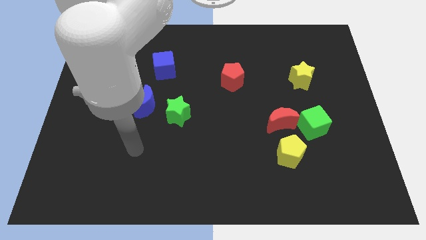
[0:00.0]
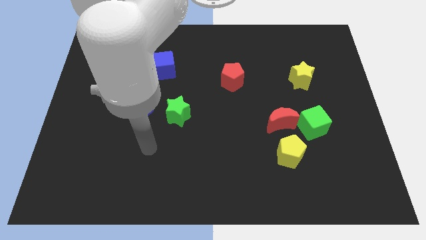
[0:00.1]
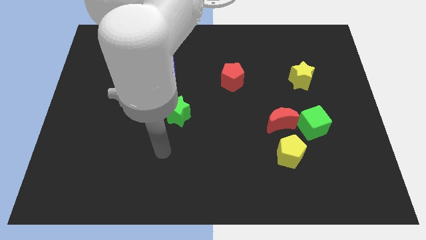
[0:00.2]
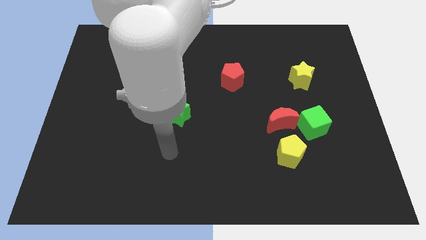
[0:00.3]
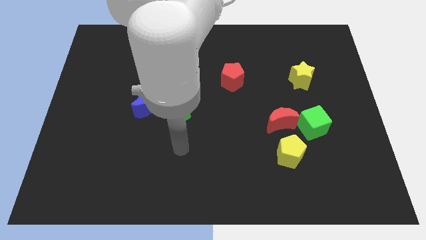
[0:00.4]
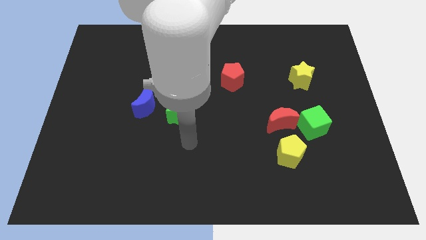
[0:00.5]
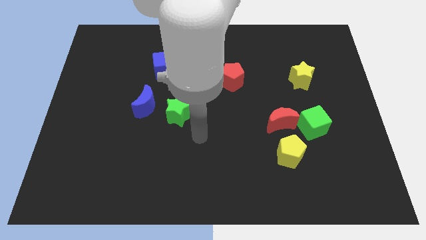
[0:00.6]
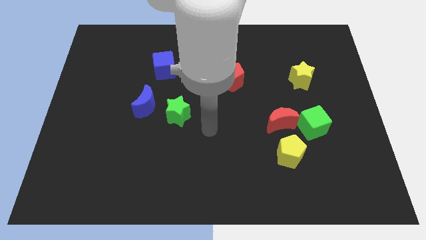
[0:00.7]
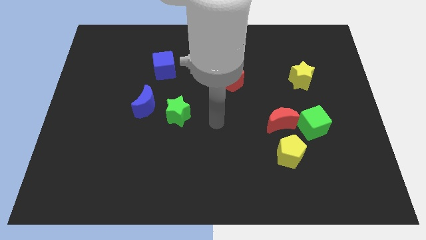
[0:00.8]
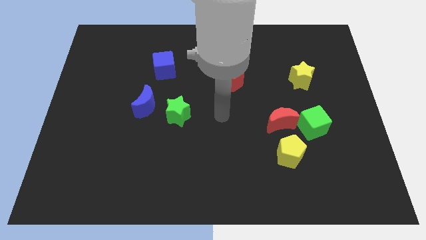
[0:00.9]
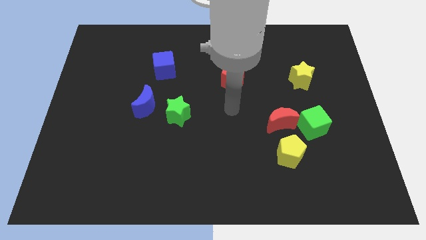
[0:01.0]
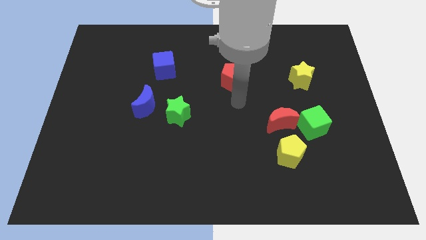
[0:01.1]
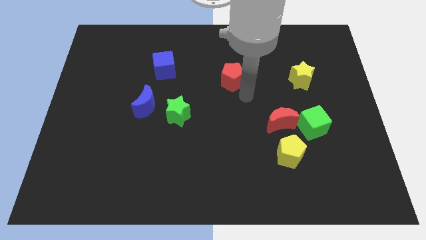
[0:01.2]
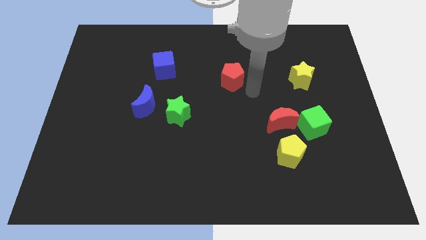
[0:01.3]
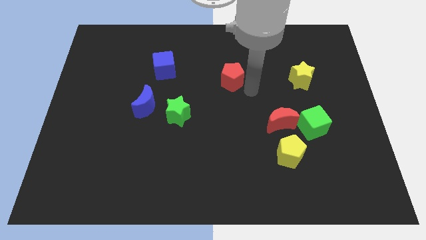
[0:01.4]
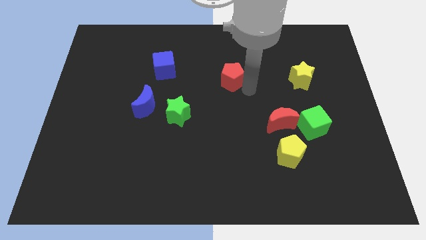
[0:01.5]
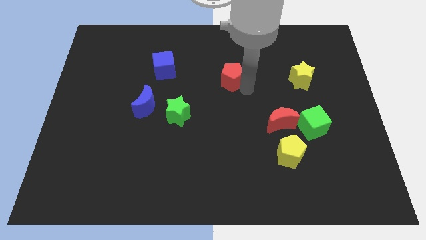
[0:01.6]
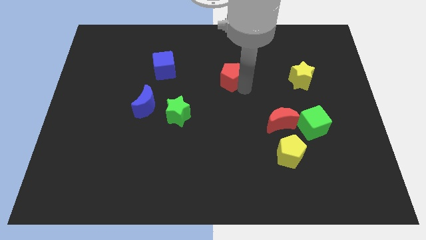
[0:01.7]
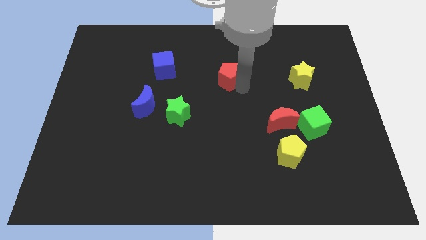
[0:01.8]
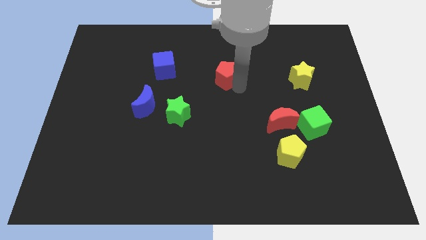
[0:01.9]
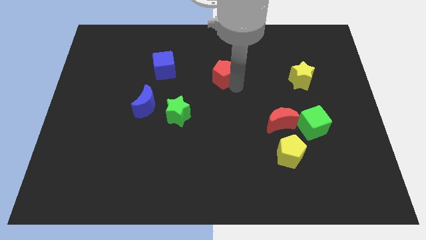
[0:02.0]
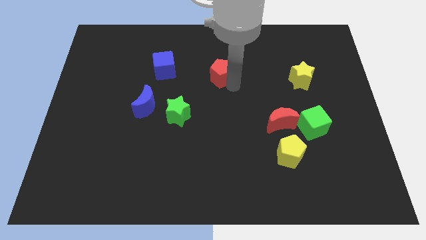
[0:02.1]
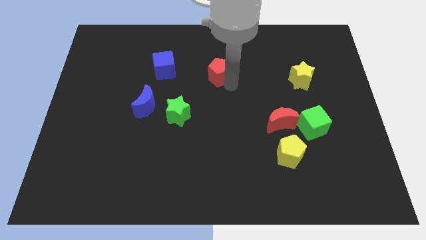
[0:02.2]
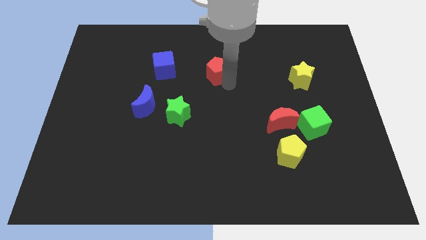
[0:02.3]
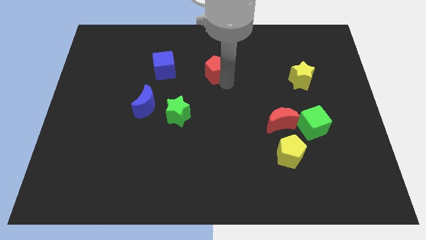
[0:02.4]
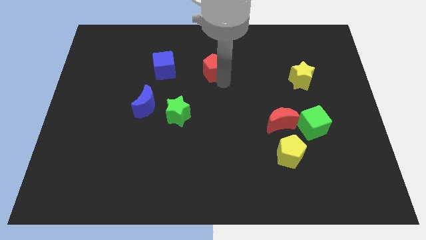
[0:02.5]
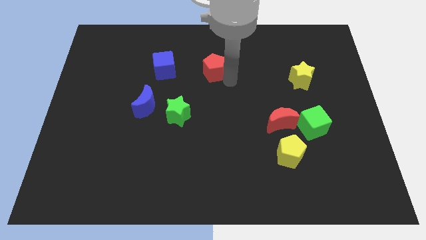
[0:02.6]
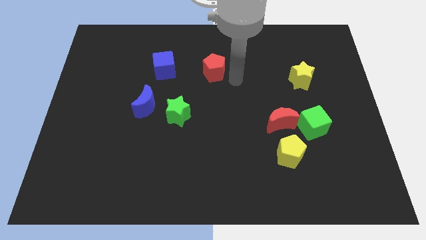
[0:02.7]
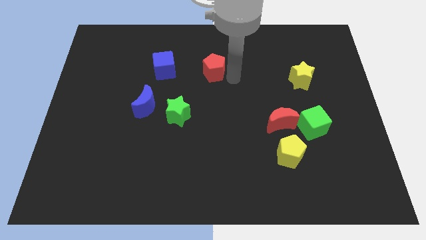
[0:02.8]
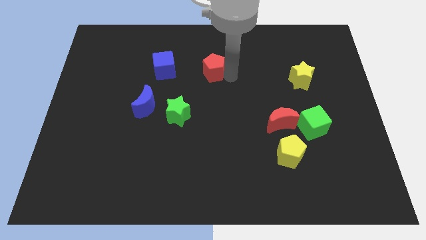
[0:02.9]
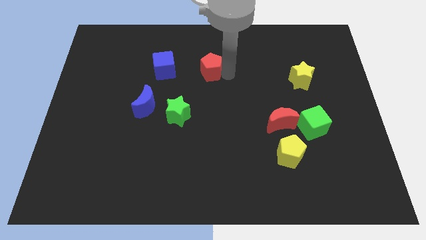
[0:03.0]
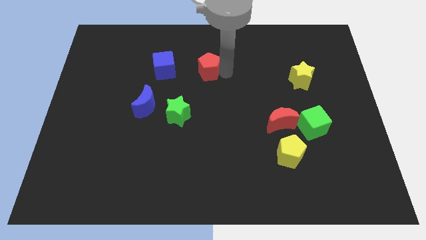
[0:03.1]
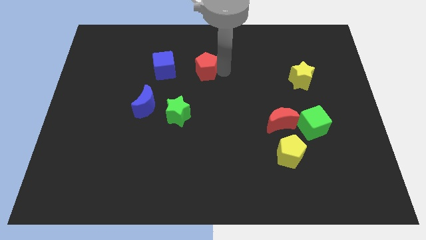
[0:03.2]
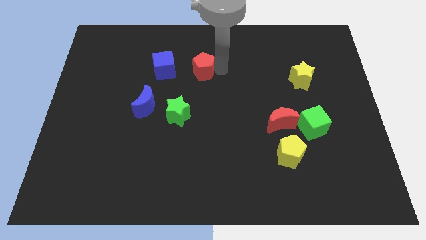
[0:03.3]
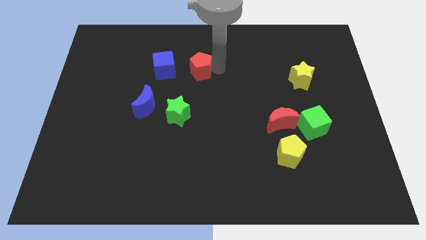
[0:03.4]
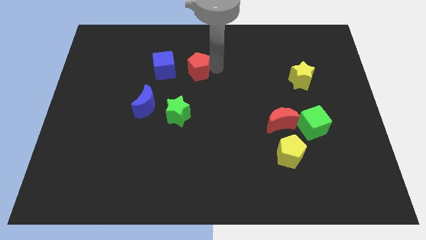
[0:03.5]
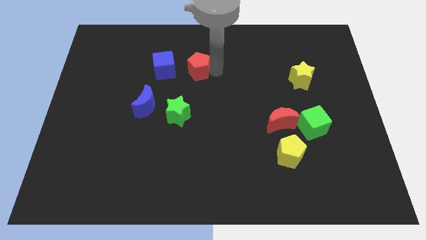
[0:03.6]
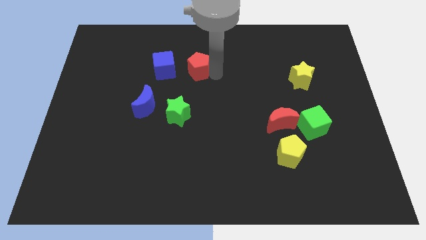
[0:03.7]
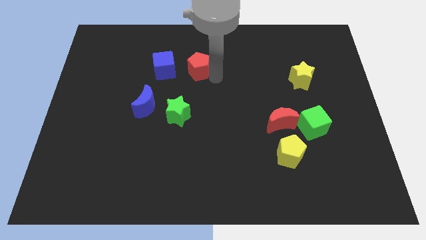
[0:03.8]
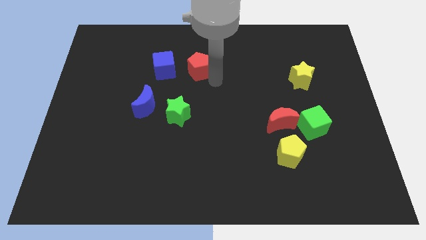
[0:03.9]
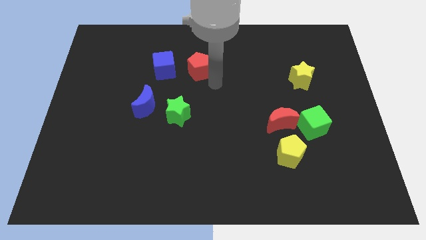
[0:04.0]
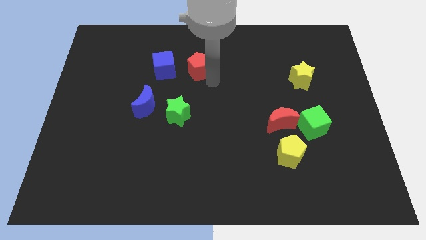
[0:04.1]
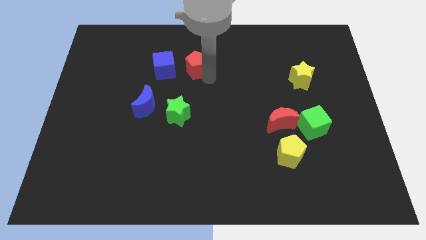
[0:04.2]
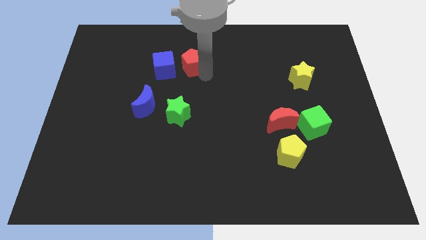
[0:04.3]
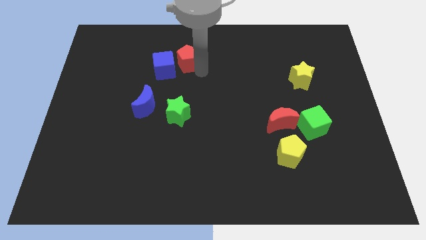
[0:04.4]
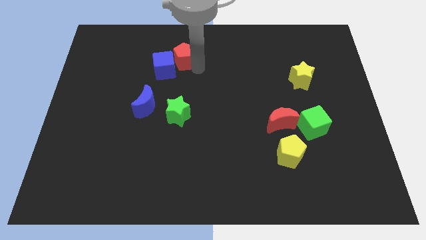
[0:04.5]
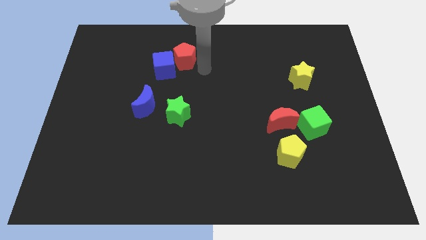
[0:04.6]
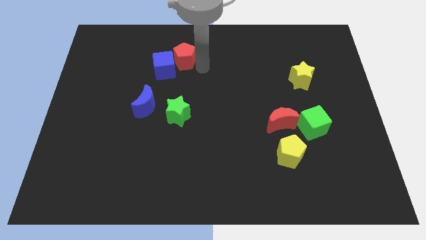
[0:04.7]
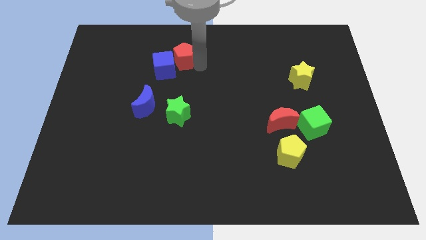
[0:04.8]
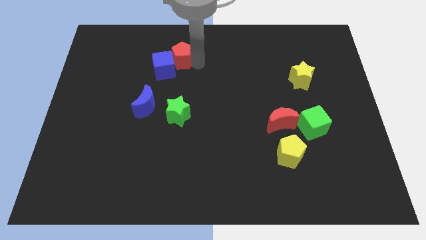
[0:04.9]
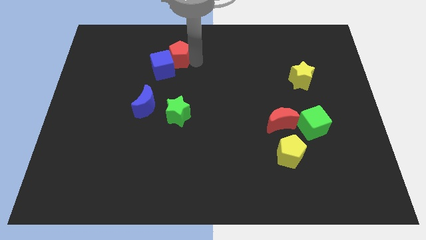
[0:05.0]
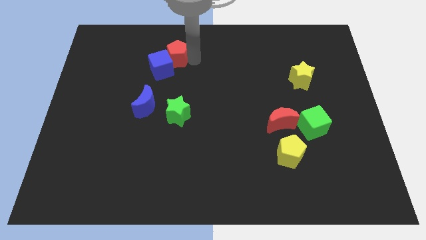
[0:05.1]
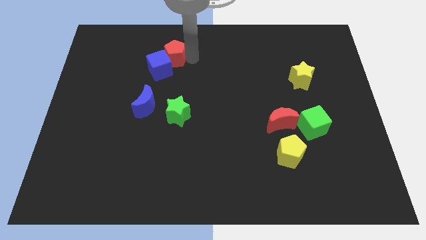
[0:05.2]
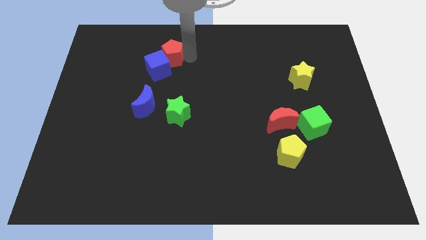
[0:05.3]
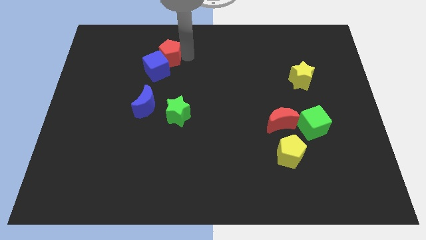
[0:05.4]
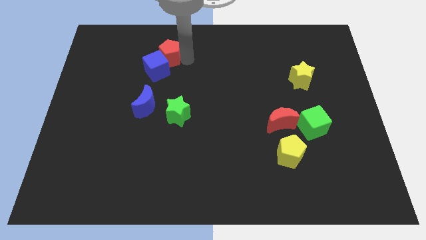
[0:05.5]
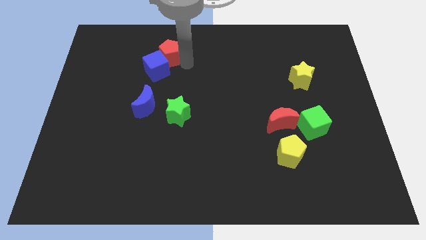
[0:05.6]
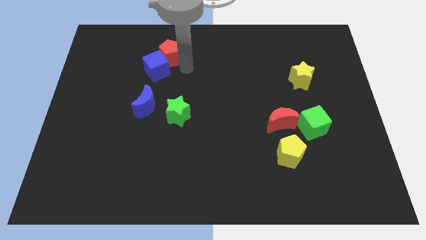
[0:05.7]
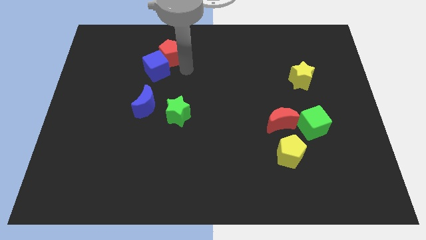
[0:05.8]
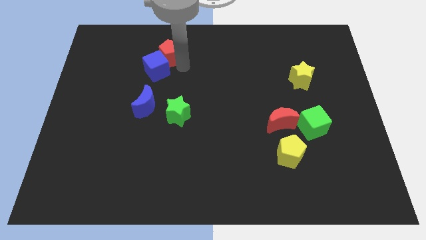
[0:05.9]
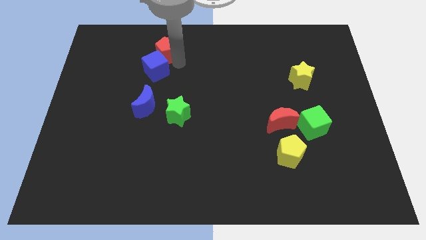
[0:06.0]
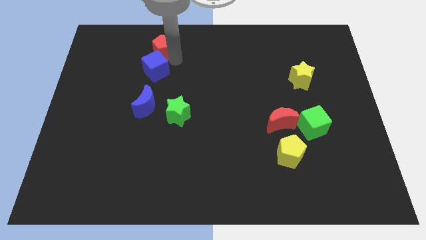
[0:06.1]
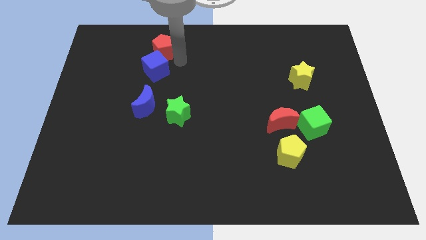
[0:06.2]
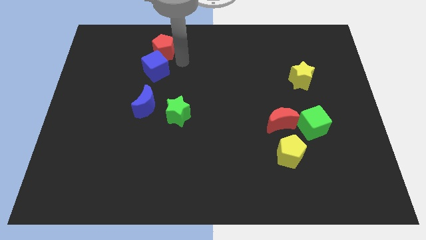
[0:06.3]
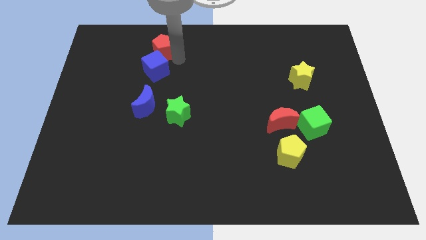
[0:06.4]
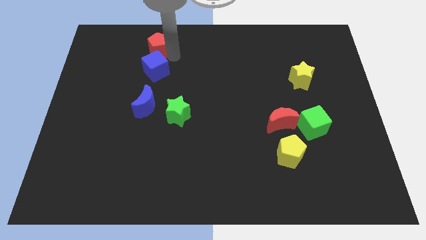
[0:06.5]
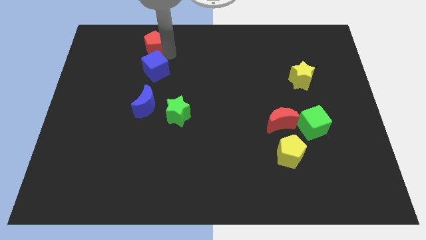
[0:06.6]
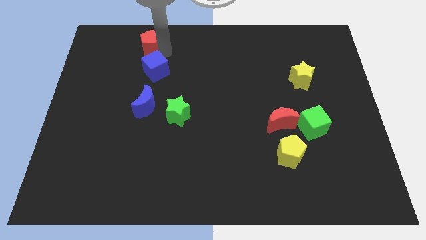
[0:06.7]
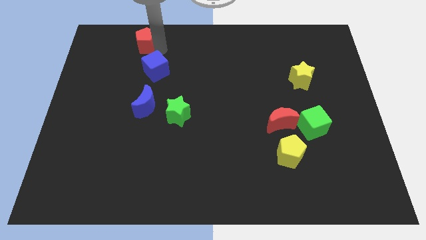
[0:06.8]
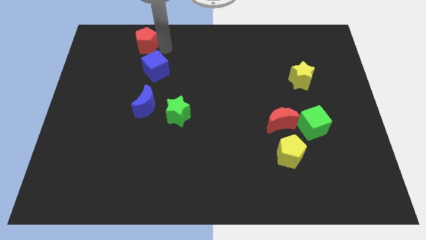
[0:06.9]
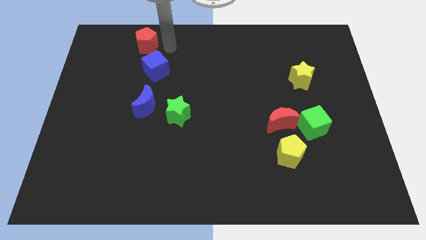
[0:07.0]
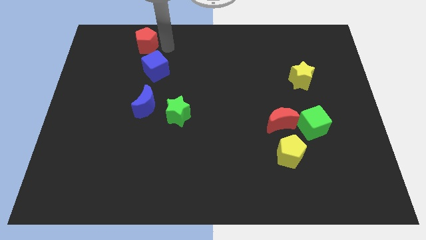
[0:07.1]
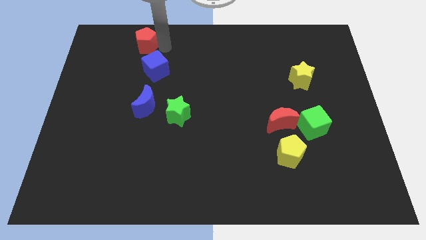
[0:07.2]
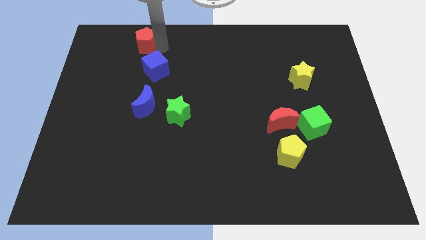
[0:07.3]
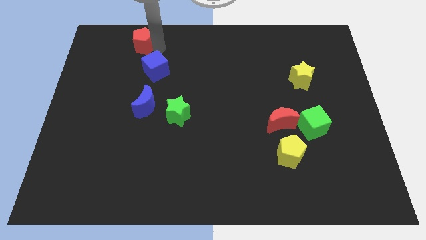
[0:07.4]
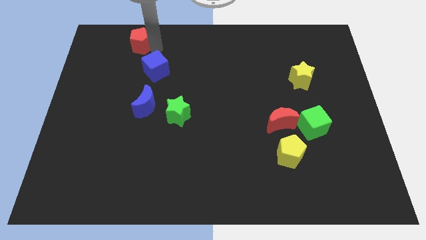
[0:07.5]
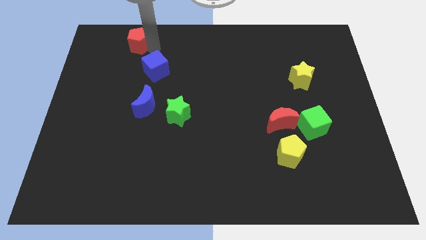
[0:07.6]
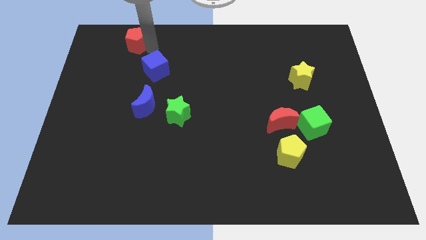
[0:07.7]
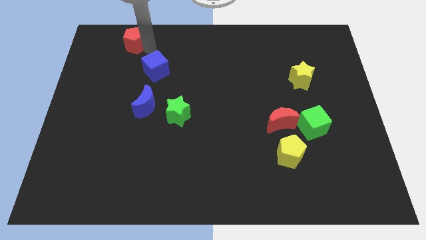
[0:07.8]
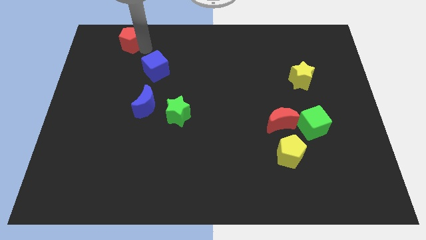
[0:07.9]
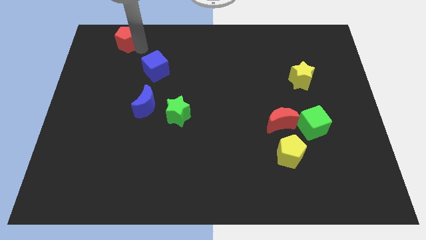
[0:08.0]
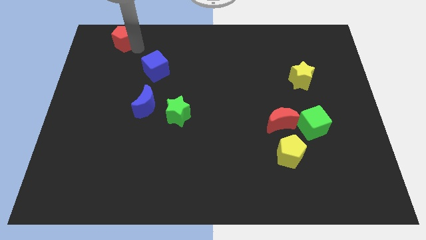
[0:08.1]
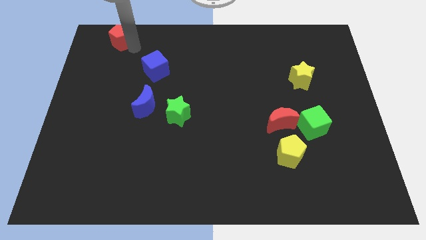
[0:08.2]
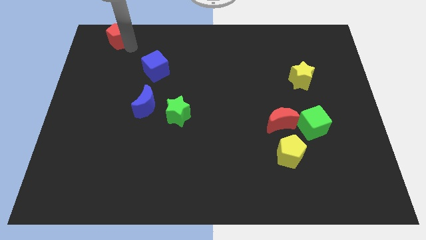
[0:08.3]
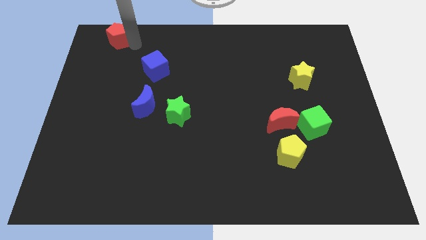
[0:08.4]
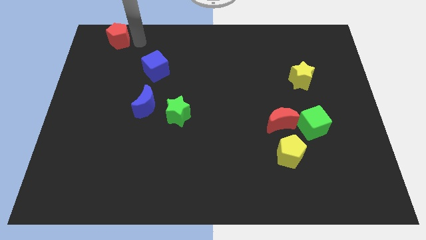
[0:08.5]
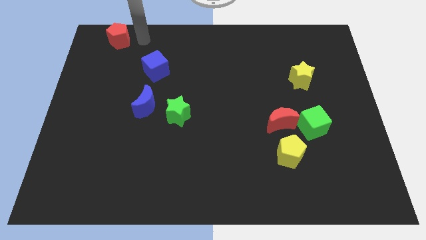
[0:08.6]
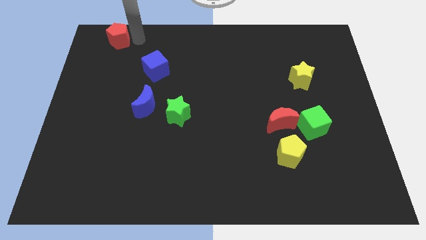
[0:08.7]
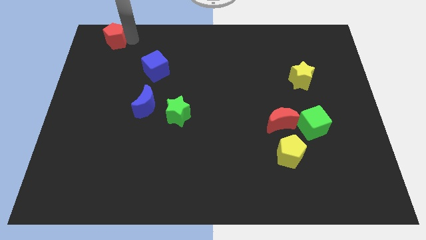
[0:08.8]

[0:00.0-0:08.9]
put the red pentagon to the top left of the board
